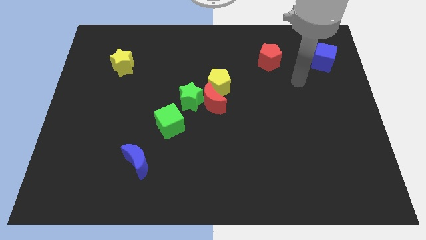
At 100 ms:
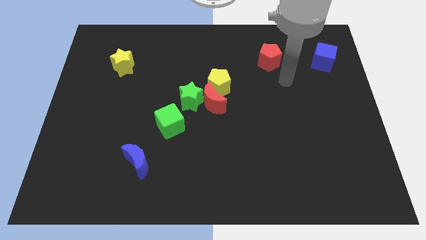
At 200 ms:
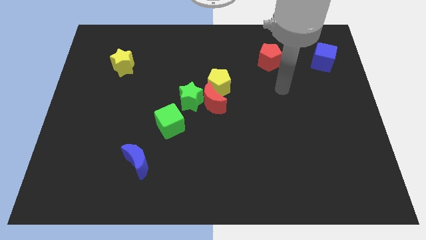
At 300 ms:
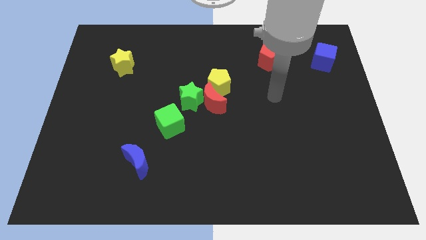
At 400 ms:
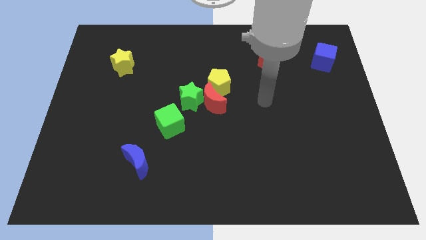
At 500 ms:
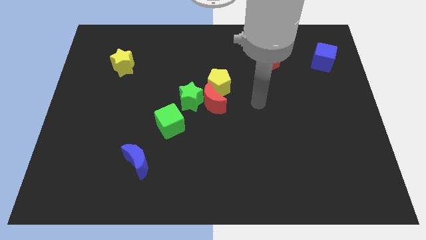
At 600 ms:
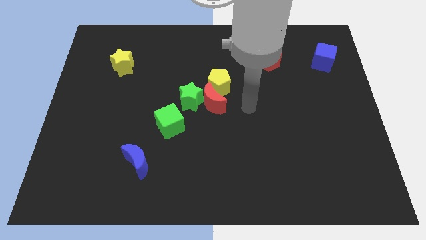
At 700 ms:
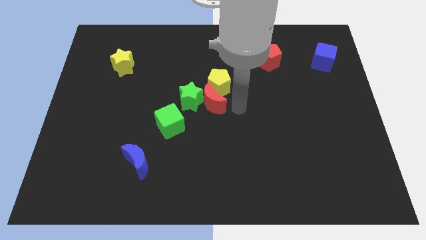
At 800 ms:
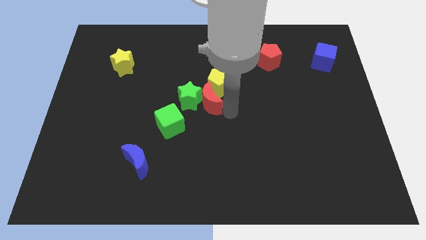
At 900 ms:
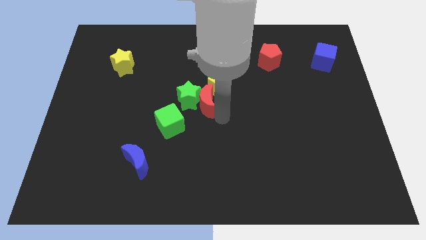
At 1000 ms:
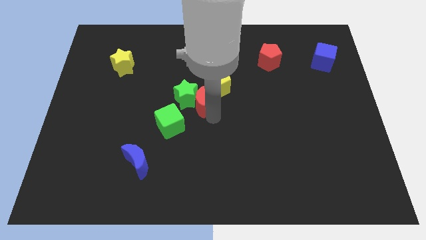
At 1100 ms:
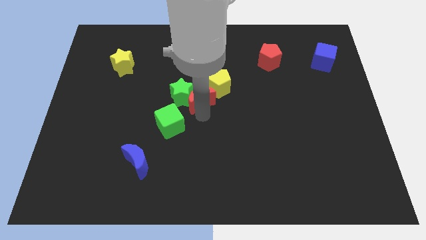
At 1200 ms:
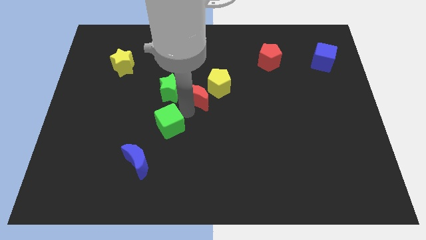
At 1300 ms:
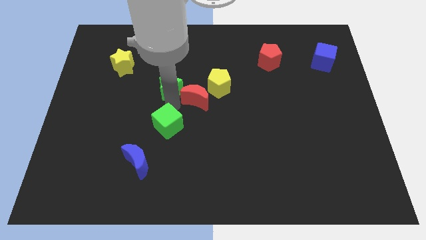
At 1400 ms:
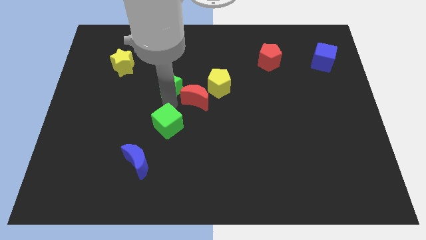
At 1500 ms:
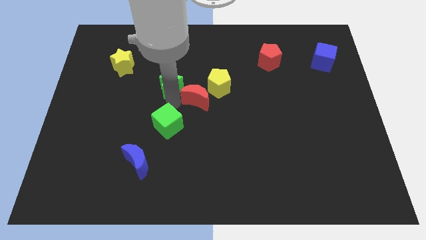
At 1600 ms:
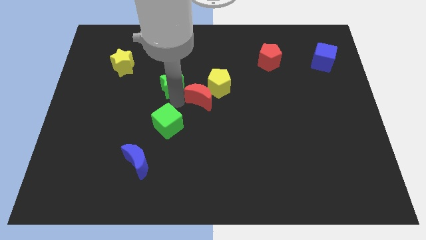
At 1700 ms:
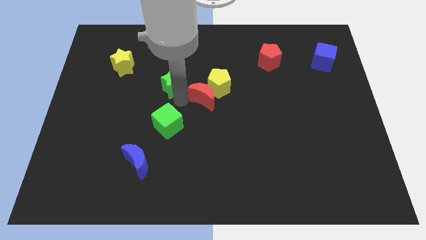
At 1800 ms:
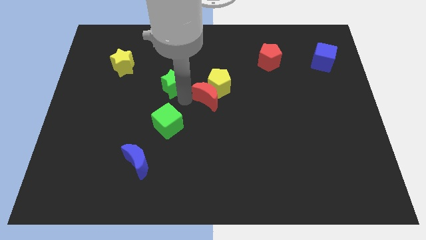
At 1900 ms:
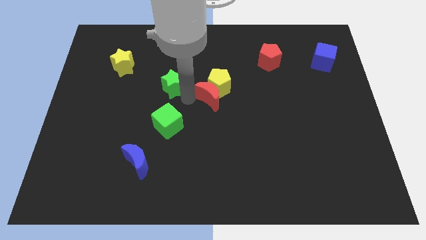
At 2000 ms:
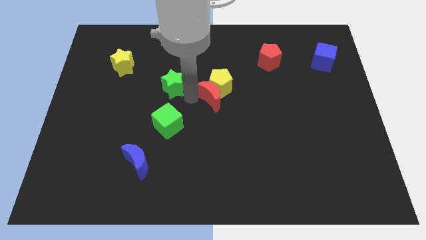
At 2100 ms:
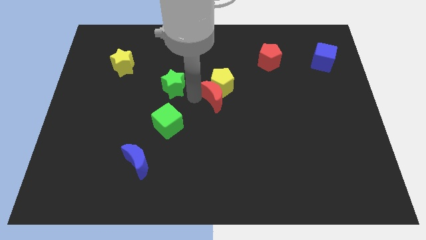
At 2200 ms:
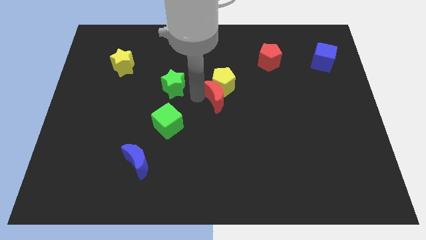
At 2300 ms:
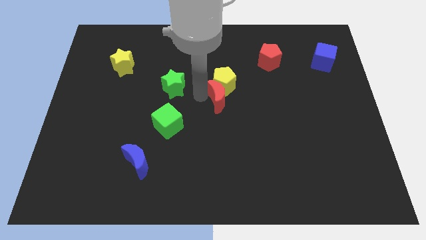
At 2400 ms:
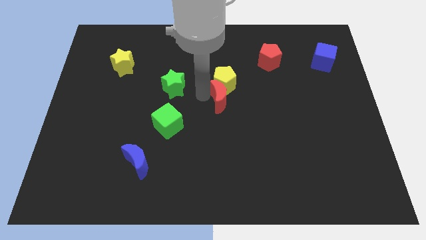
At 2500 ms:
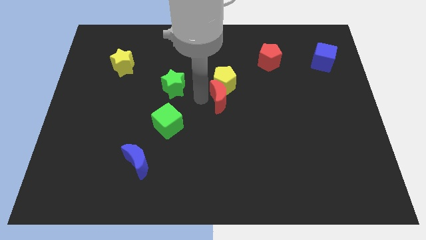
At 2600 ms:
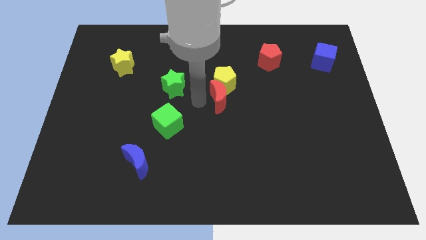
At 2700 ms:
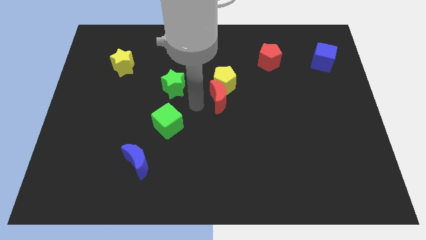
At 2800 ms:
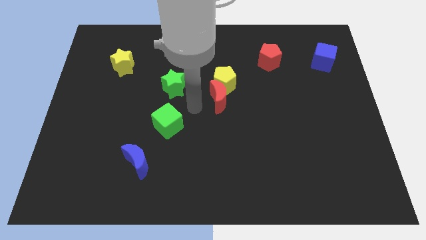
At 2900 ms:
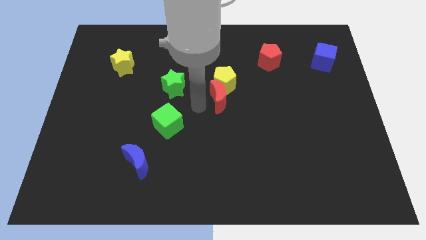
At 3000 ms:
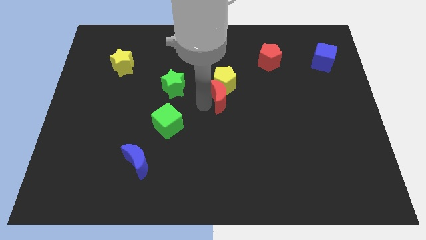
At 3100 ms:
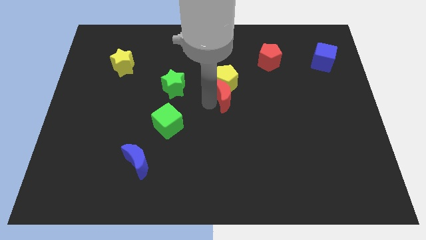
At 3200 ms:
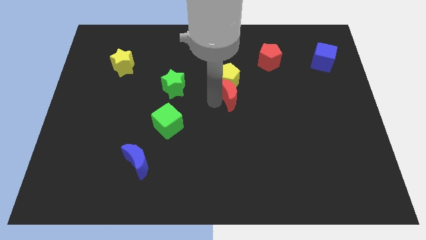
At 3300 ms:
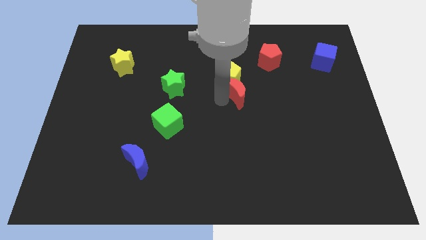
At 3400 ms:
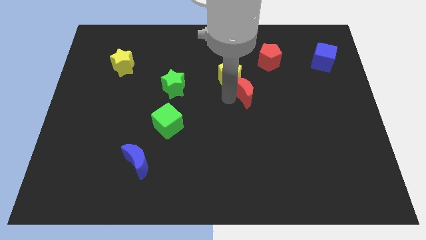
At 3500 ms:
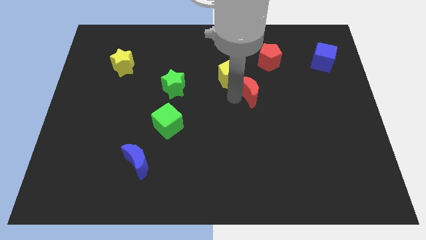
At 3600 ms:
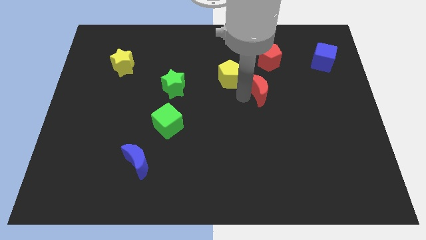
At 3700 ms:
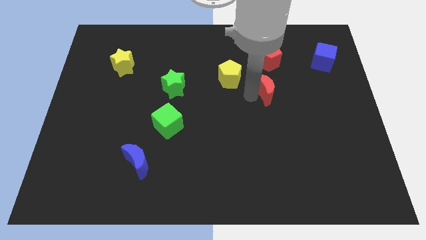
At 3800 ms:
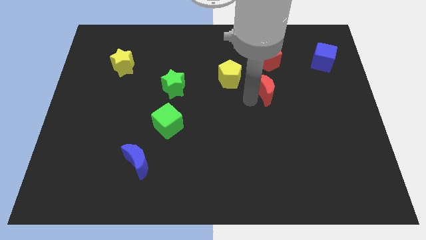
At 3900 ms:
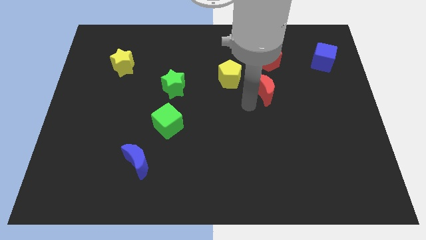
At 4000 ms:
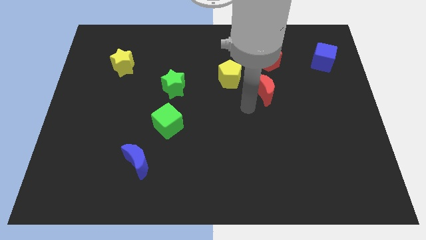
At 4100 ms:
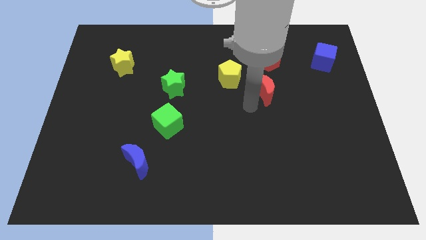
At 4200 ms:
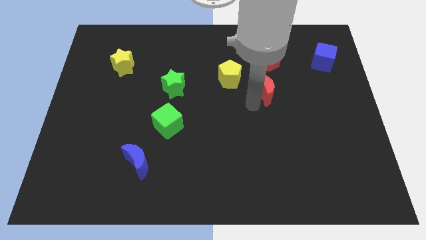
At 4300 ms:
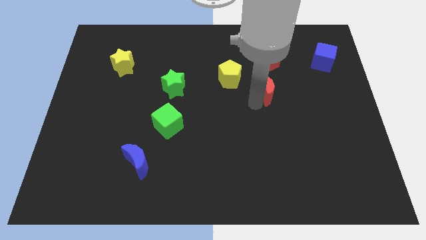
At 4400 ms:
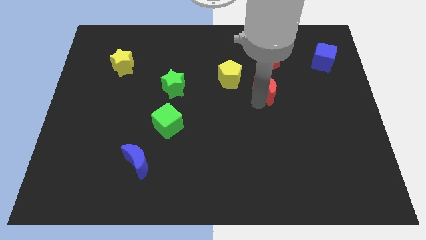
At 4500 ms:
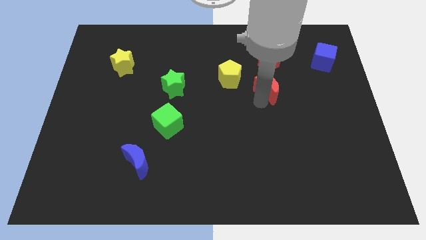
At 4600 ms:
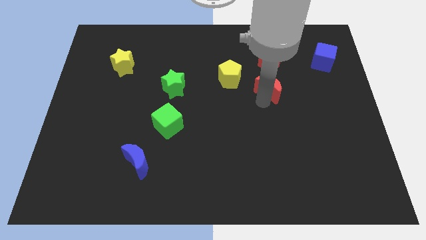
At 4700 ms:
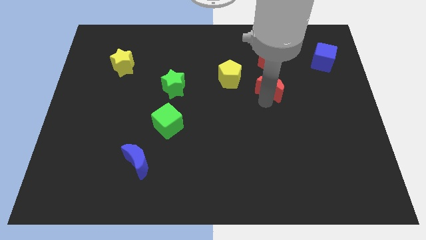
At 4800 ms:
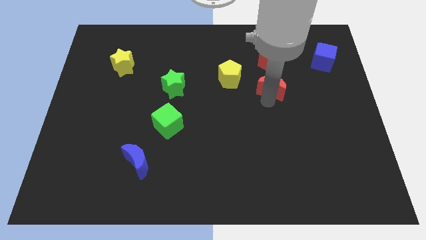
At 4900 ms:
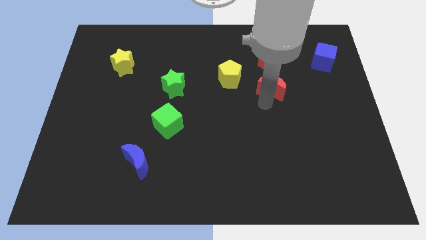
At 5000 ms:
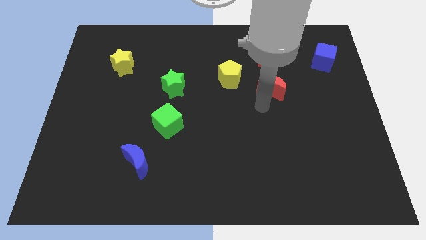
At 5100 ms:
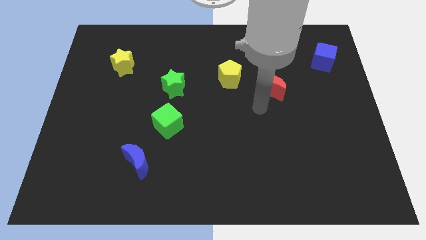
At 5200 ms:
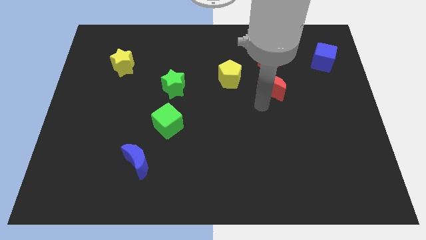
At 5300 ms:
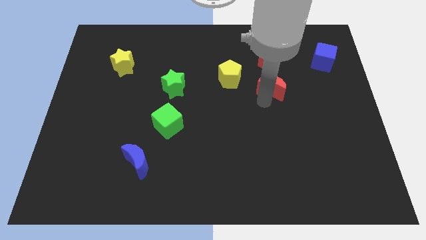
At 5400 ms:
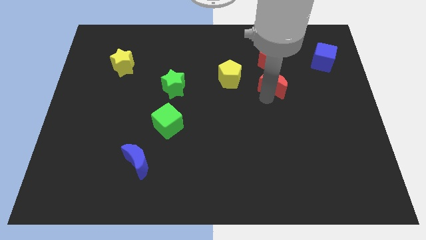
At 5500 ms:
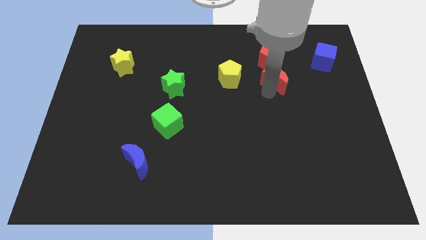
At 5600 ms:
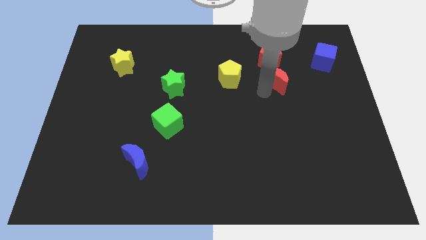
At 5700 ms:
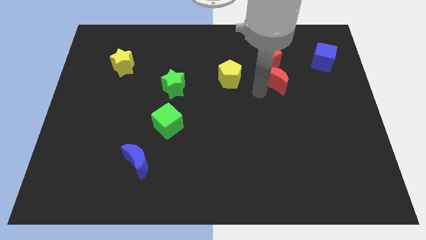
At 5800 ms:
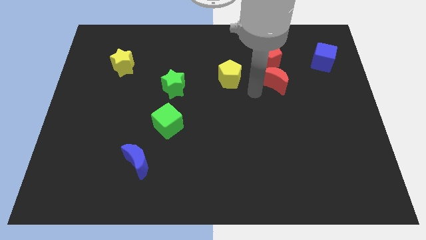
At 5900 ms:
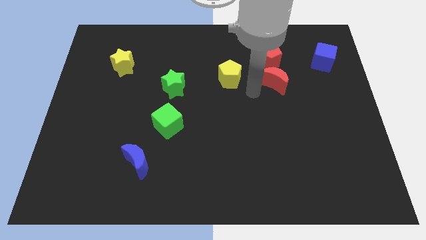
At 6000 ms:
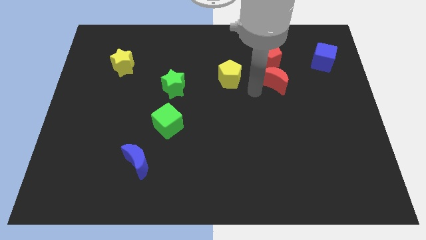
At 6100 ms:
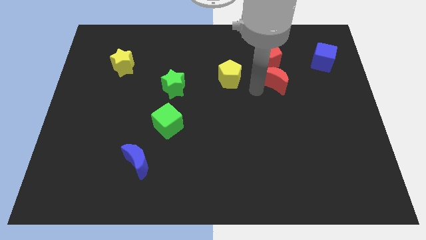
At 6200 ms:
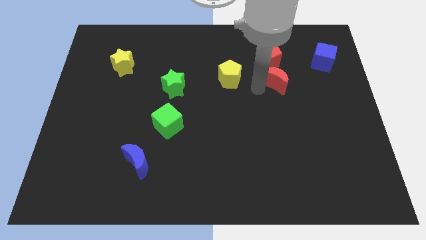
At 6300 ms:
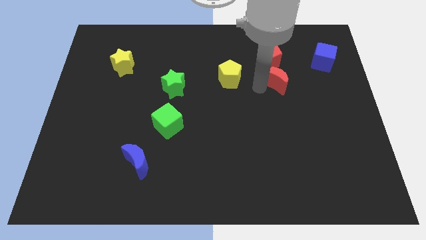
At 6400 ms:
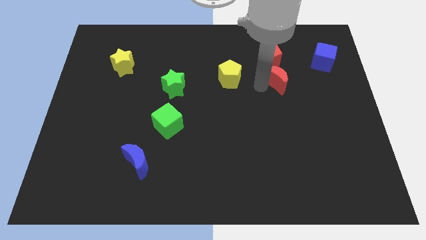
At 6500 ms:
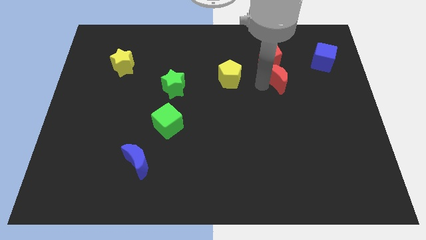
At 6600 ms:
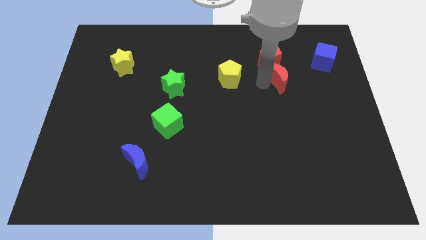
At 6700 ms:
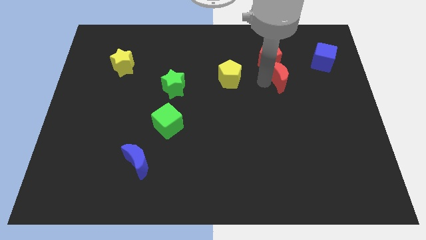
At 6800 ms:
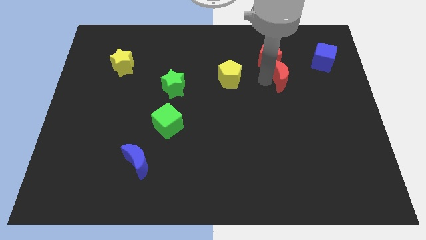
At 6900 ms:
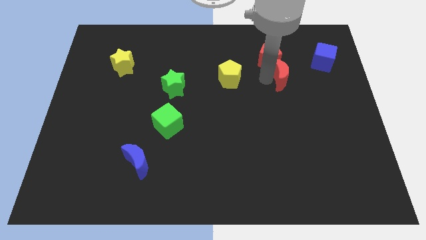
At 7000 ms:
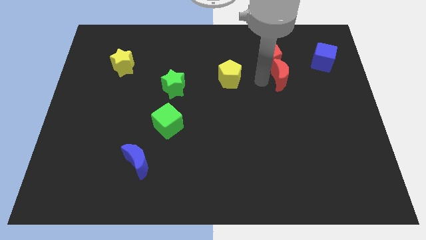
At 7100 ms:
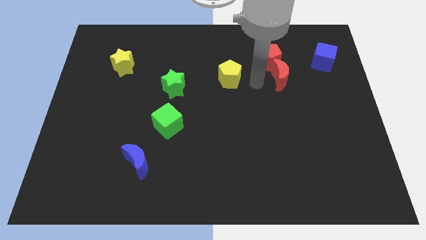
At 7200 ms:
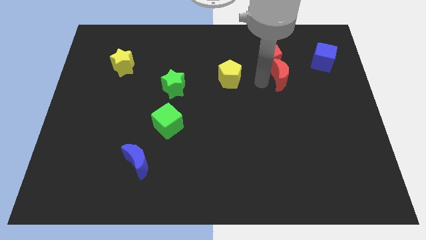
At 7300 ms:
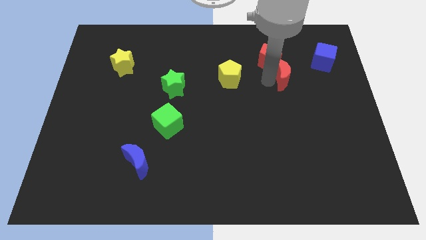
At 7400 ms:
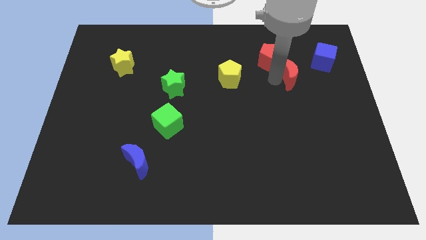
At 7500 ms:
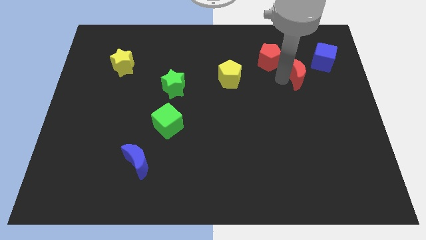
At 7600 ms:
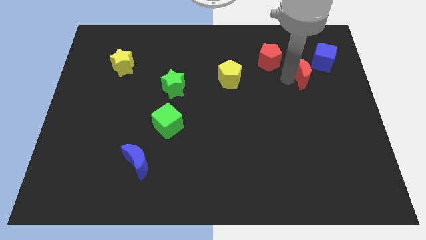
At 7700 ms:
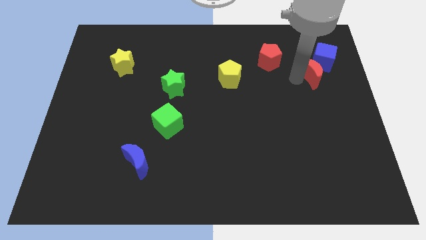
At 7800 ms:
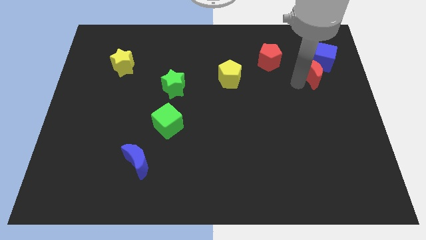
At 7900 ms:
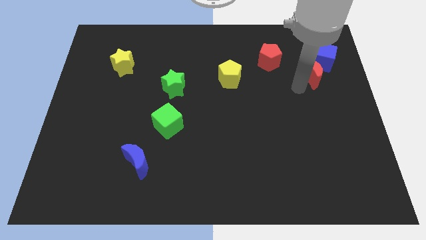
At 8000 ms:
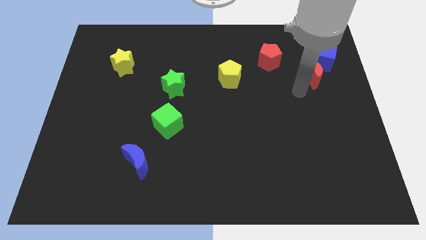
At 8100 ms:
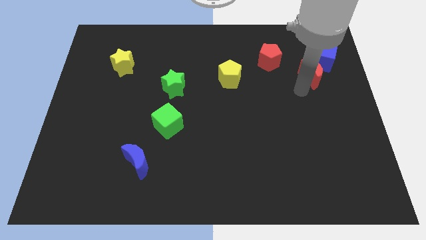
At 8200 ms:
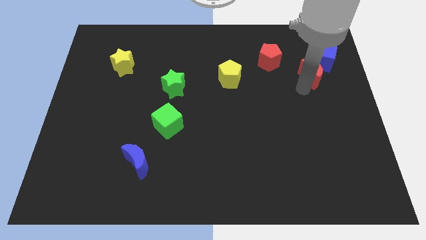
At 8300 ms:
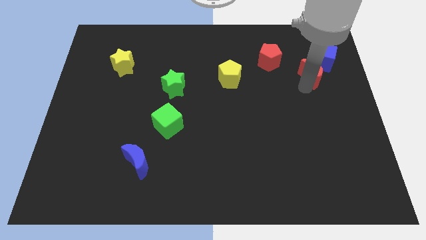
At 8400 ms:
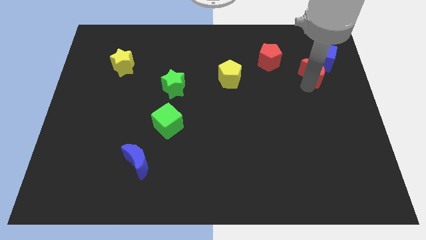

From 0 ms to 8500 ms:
put the red moon to the blue cube
